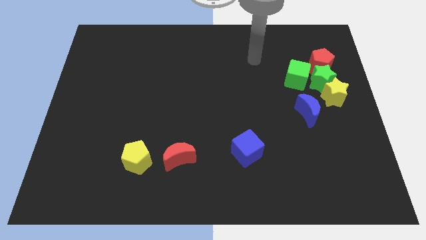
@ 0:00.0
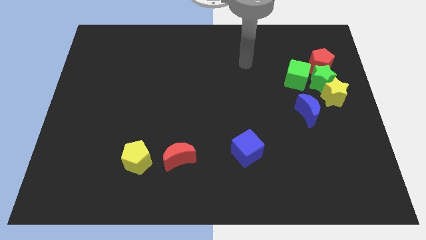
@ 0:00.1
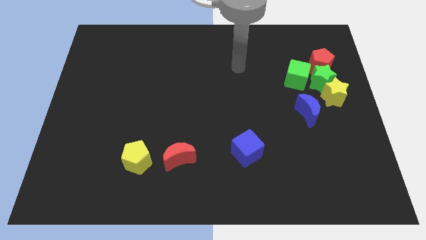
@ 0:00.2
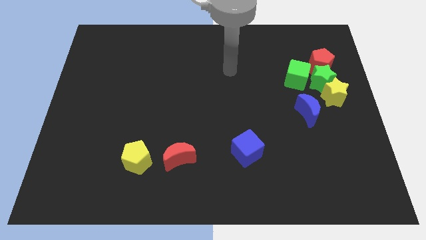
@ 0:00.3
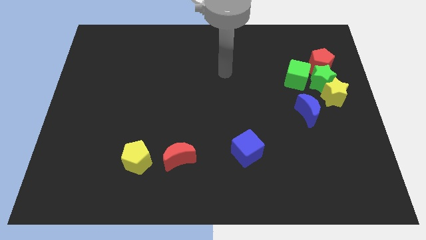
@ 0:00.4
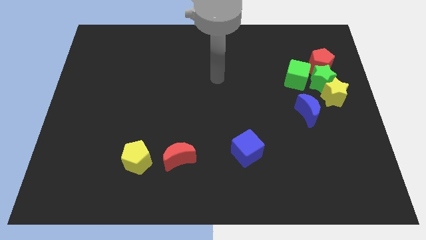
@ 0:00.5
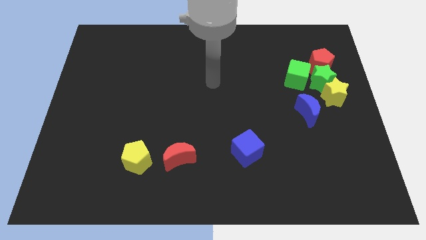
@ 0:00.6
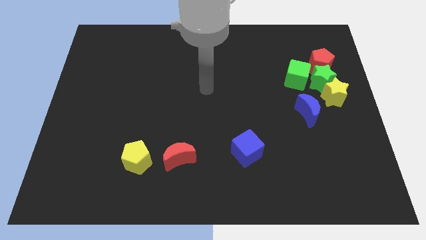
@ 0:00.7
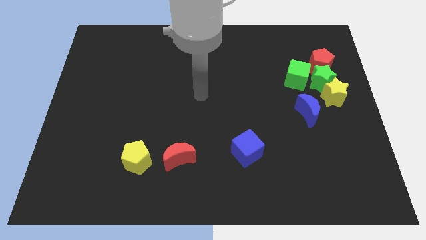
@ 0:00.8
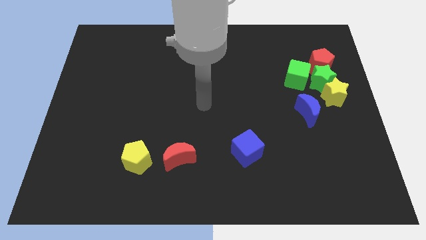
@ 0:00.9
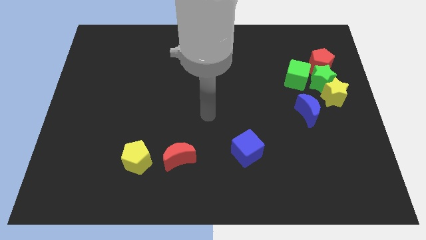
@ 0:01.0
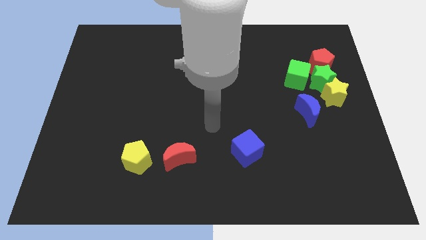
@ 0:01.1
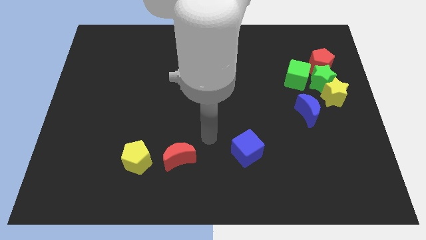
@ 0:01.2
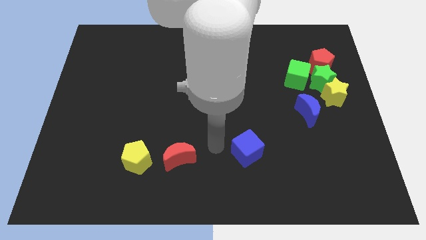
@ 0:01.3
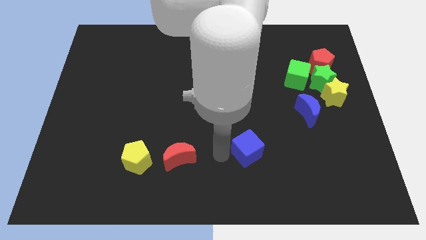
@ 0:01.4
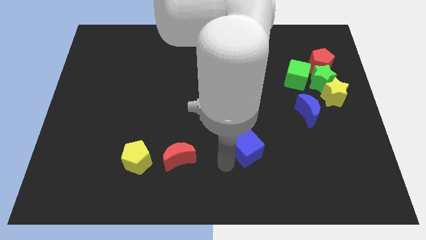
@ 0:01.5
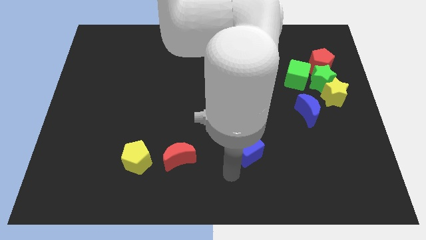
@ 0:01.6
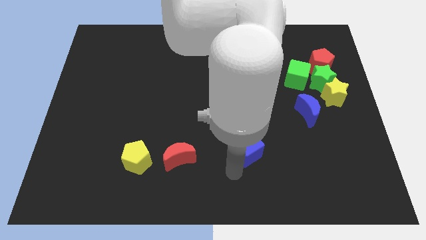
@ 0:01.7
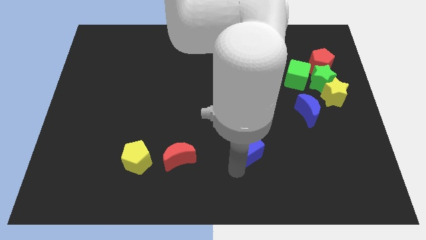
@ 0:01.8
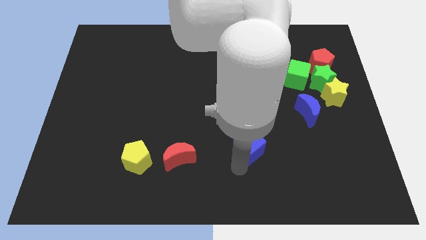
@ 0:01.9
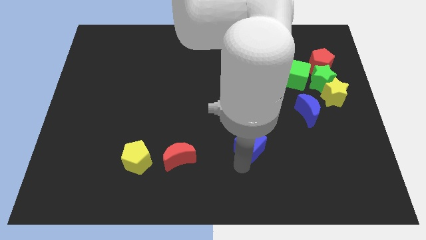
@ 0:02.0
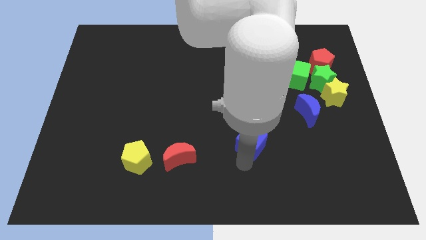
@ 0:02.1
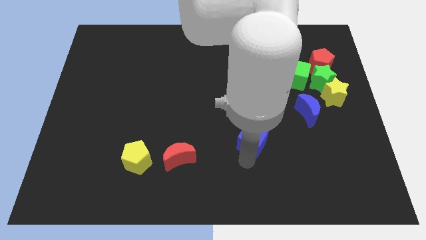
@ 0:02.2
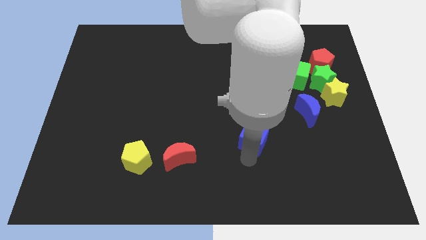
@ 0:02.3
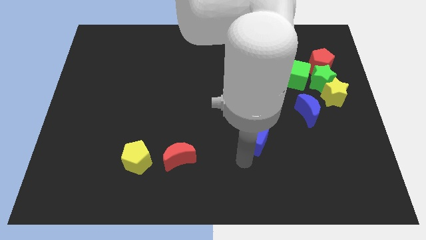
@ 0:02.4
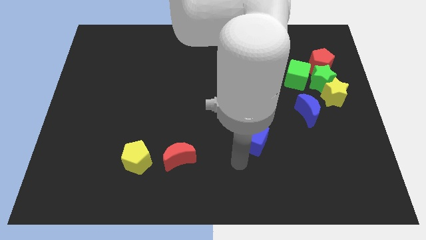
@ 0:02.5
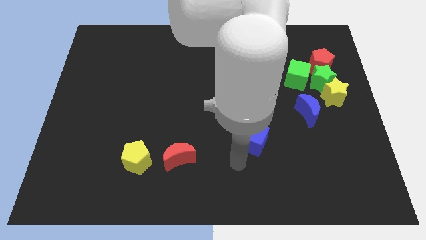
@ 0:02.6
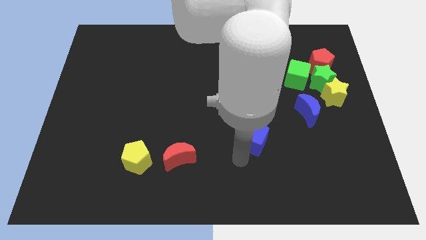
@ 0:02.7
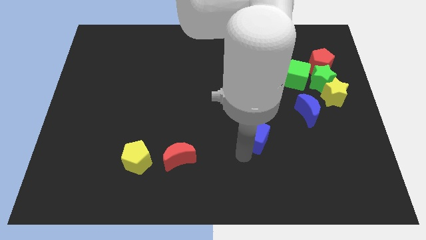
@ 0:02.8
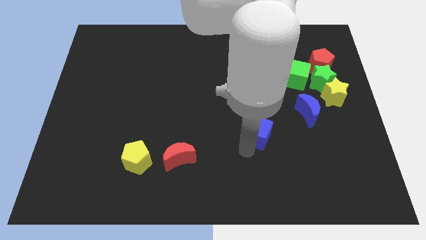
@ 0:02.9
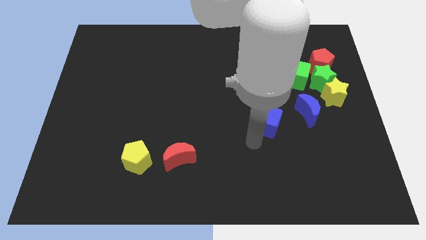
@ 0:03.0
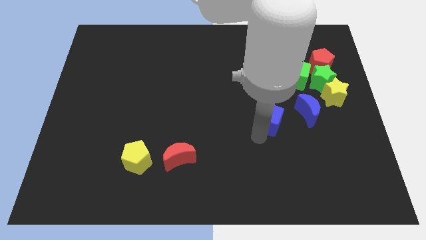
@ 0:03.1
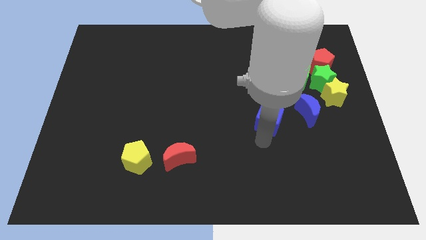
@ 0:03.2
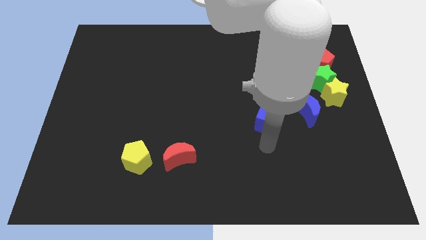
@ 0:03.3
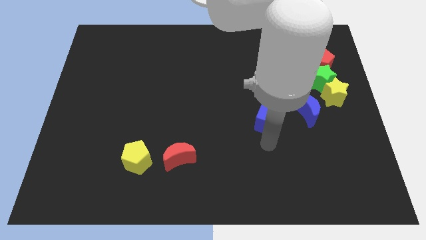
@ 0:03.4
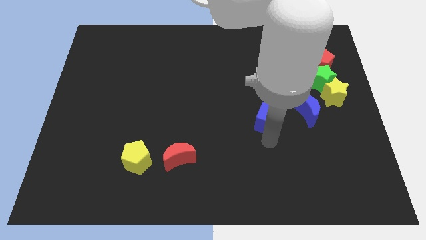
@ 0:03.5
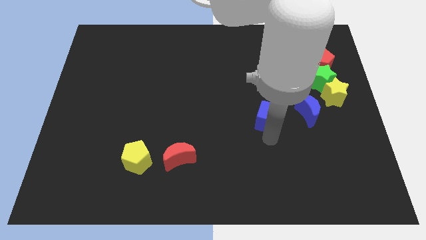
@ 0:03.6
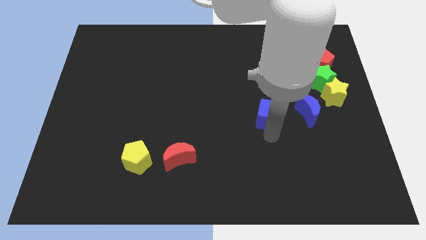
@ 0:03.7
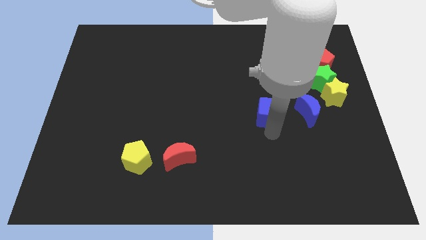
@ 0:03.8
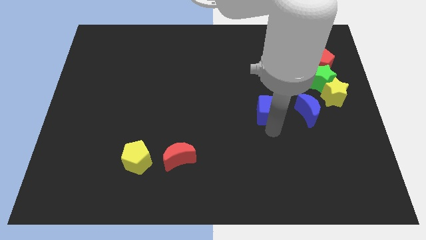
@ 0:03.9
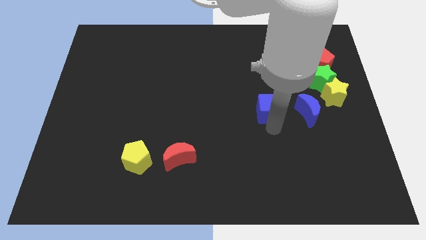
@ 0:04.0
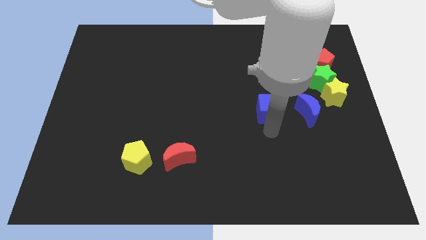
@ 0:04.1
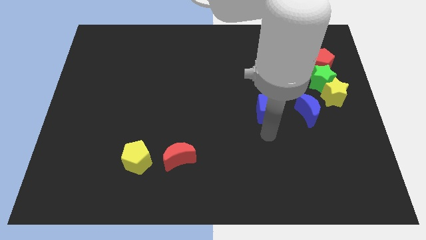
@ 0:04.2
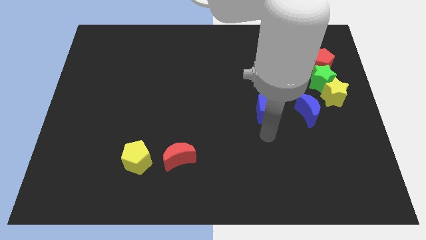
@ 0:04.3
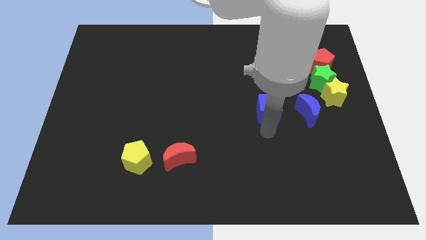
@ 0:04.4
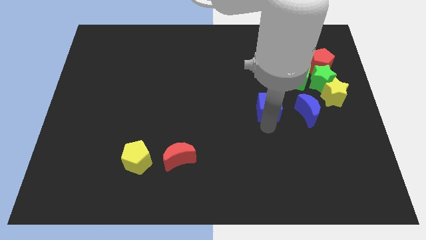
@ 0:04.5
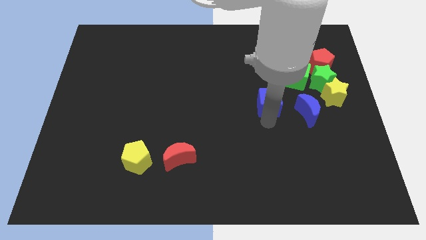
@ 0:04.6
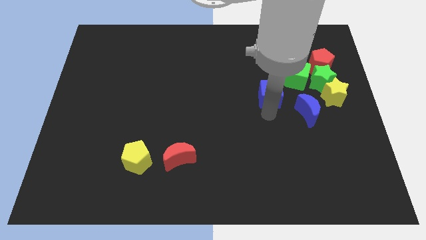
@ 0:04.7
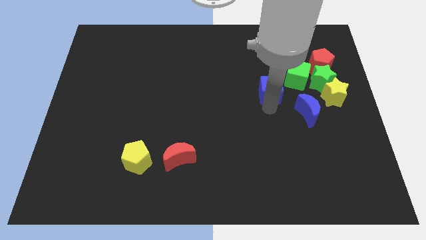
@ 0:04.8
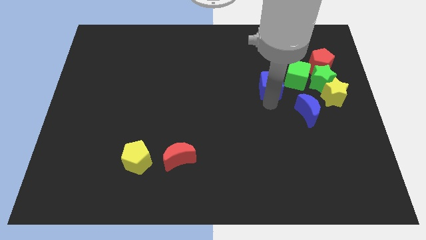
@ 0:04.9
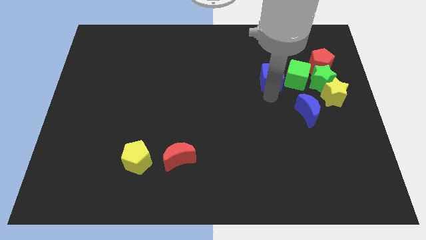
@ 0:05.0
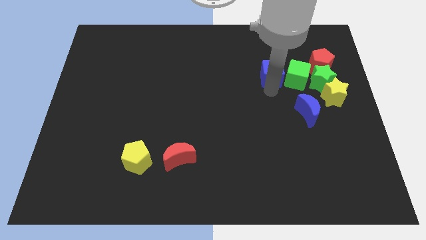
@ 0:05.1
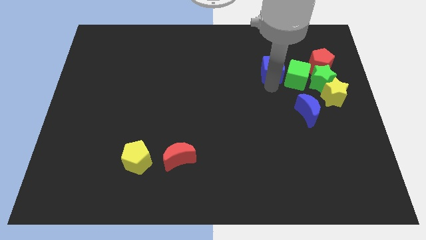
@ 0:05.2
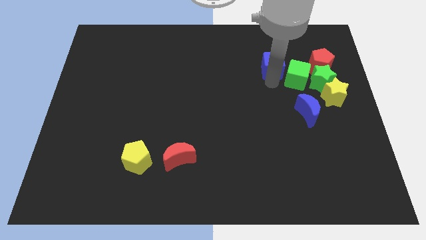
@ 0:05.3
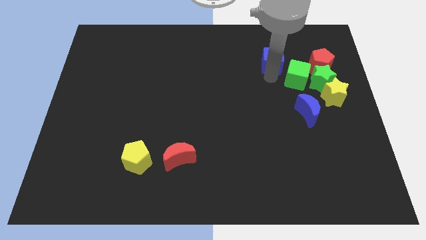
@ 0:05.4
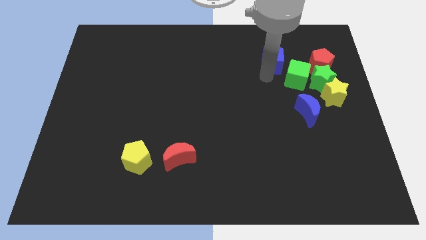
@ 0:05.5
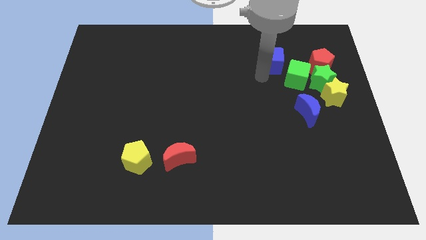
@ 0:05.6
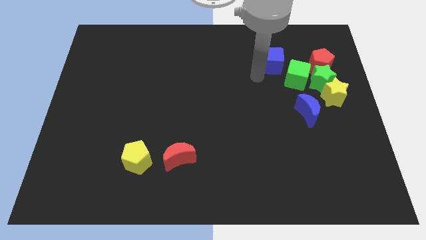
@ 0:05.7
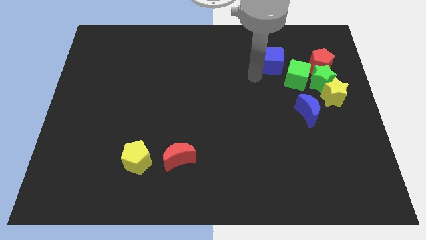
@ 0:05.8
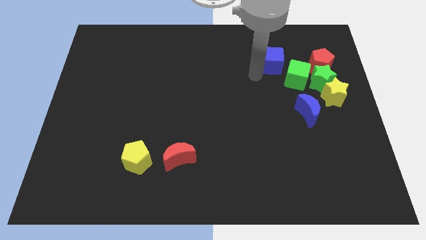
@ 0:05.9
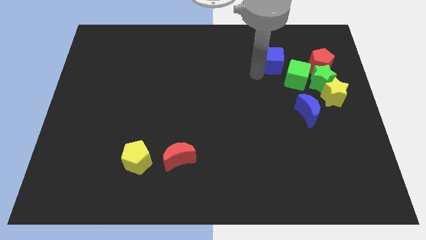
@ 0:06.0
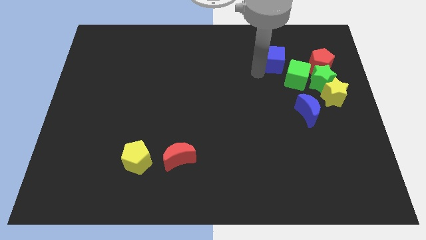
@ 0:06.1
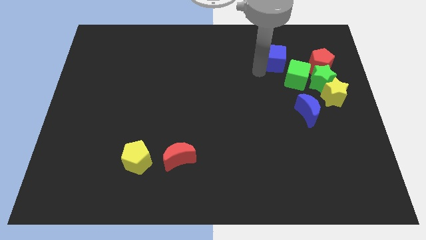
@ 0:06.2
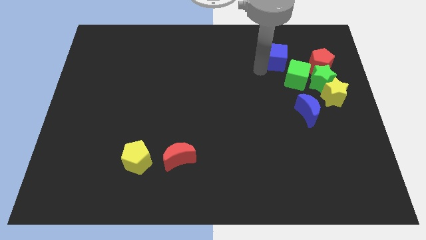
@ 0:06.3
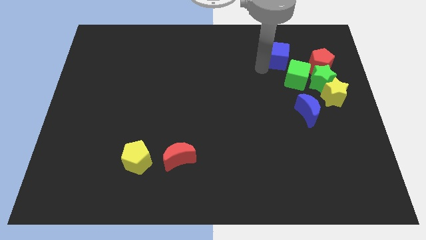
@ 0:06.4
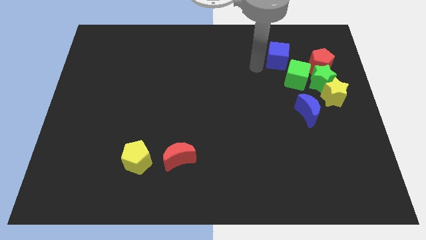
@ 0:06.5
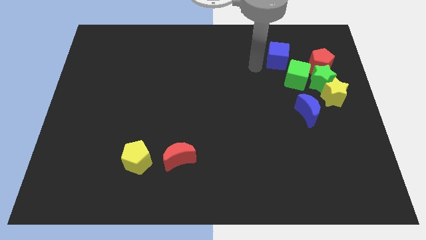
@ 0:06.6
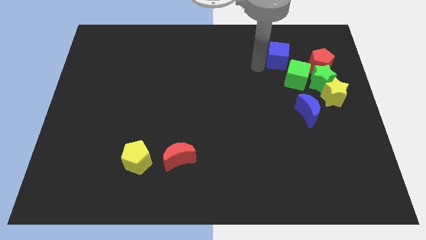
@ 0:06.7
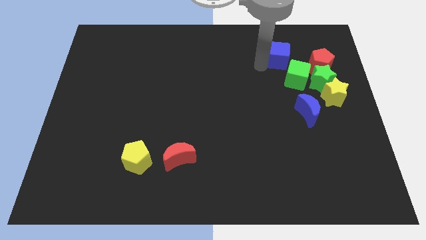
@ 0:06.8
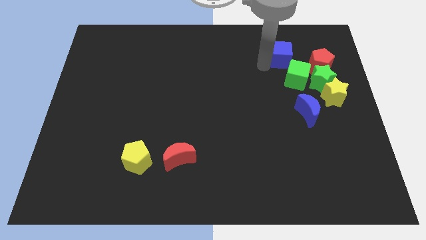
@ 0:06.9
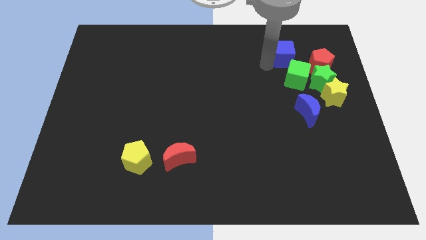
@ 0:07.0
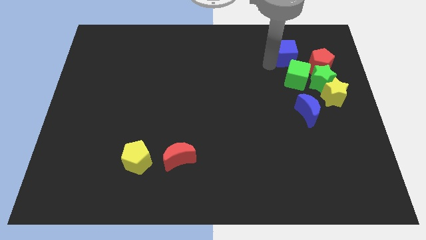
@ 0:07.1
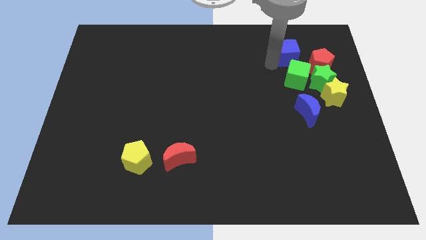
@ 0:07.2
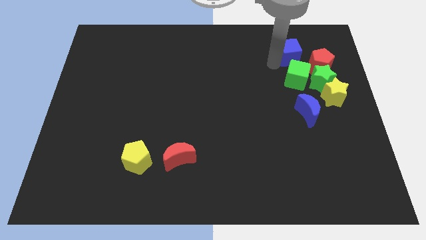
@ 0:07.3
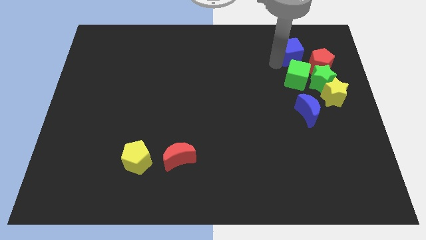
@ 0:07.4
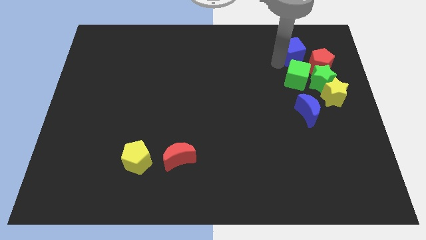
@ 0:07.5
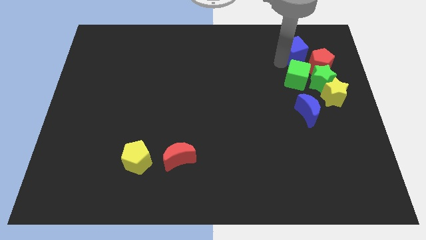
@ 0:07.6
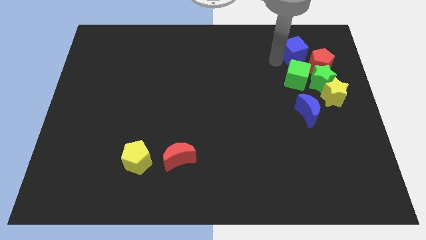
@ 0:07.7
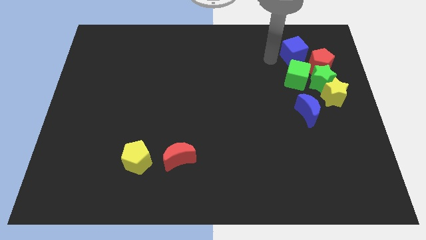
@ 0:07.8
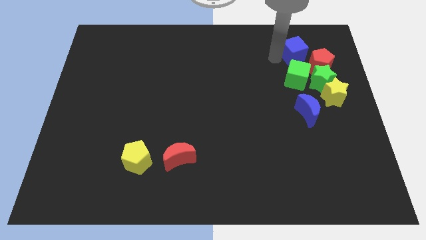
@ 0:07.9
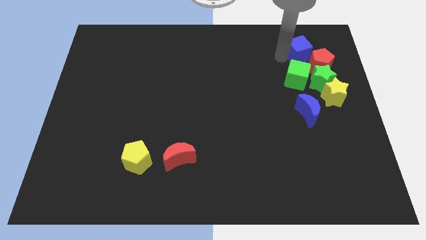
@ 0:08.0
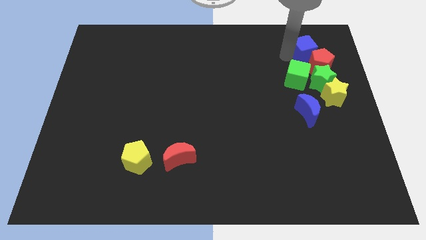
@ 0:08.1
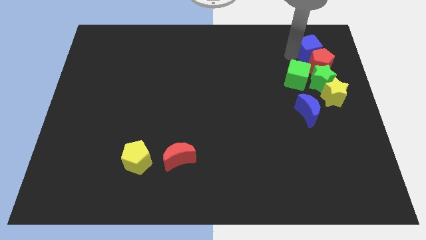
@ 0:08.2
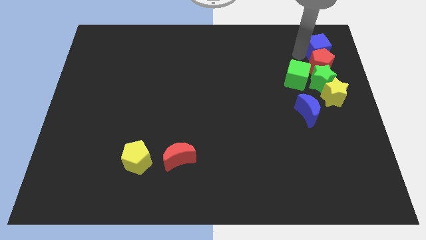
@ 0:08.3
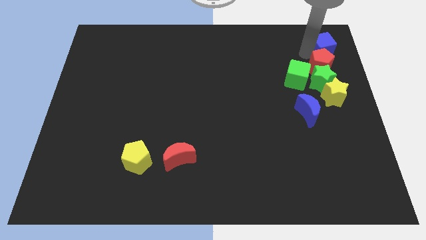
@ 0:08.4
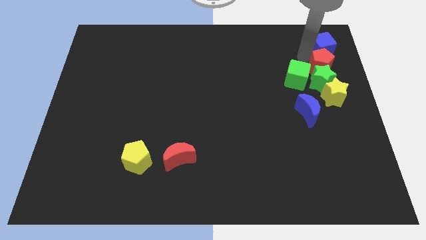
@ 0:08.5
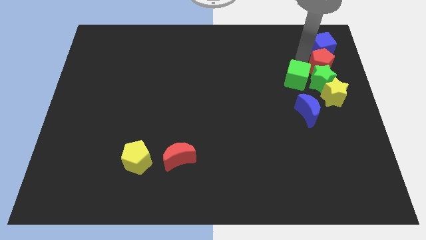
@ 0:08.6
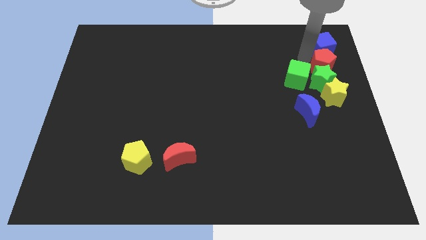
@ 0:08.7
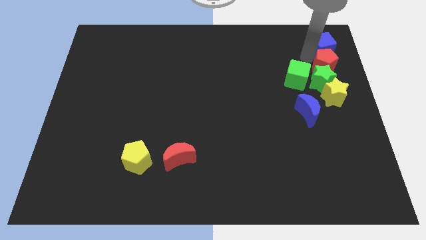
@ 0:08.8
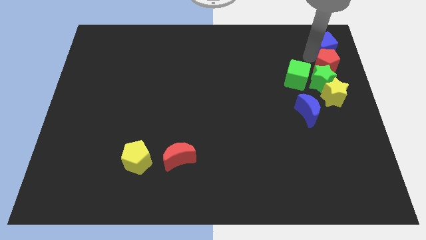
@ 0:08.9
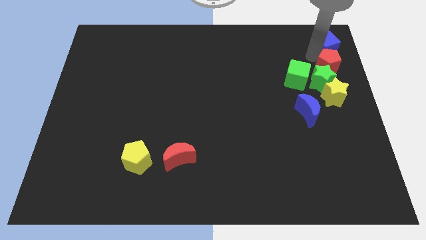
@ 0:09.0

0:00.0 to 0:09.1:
slide the blue cube to the top right of the board
